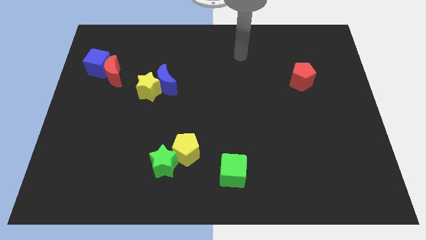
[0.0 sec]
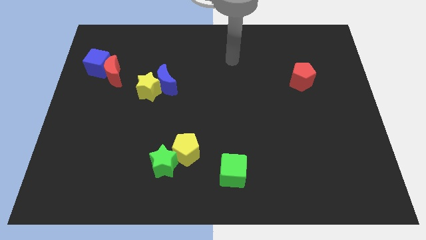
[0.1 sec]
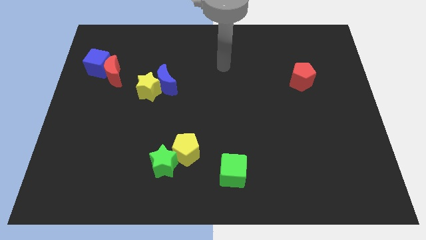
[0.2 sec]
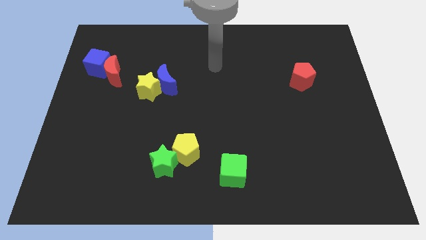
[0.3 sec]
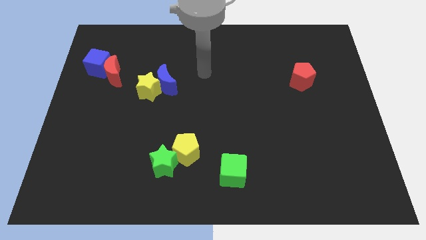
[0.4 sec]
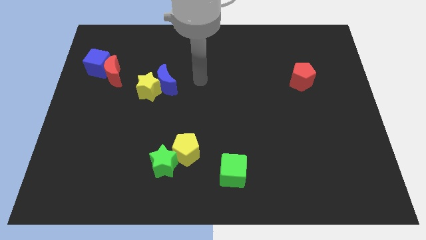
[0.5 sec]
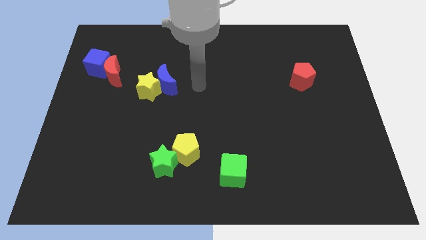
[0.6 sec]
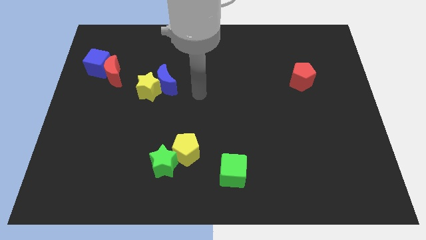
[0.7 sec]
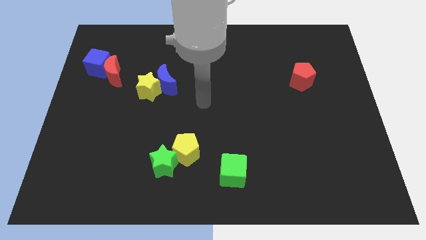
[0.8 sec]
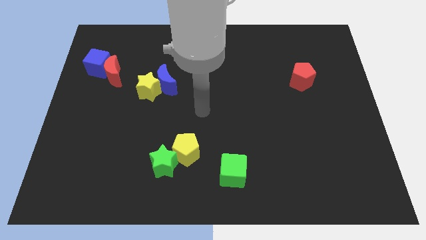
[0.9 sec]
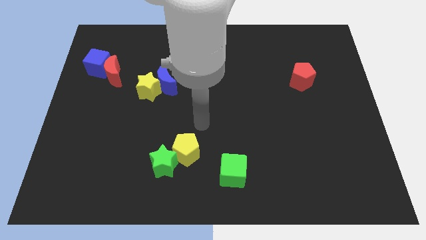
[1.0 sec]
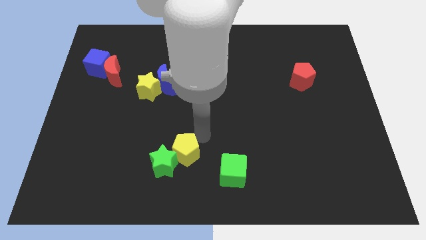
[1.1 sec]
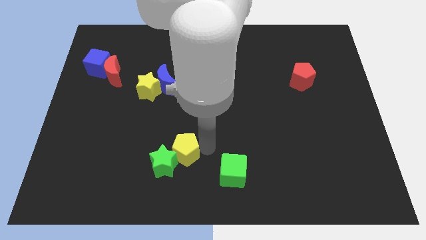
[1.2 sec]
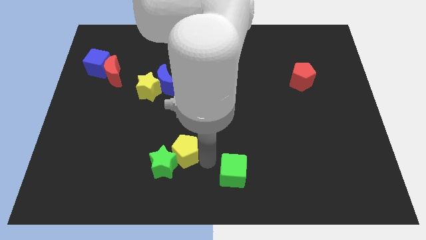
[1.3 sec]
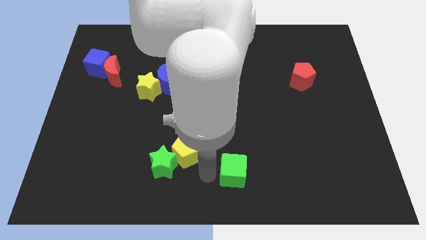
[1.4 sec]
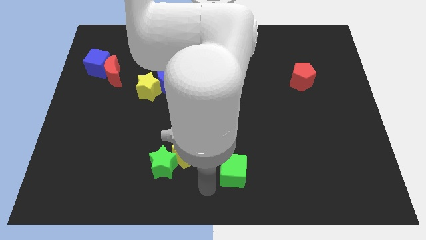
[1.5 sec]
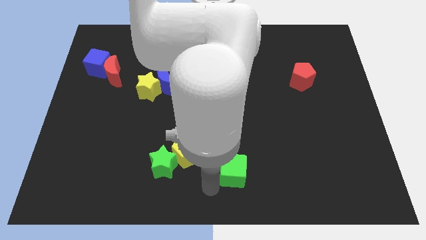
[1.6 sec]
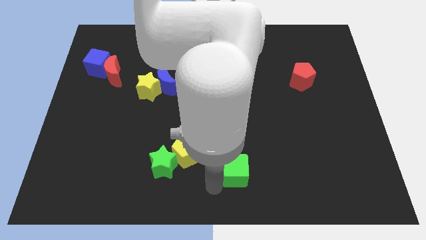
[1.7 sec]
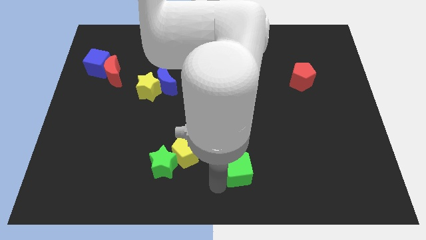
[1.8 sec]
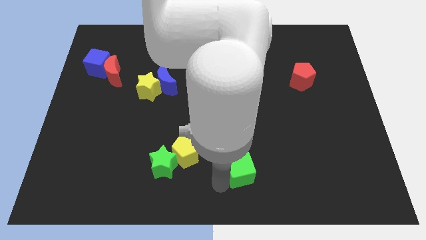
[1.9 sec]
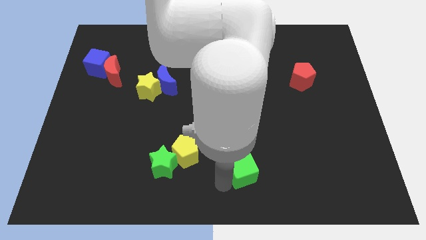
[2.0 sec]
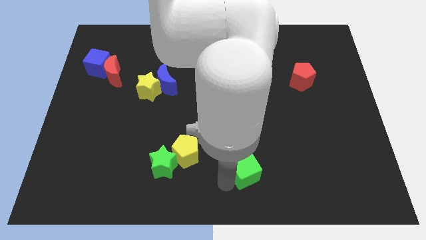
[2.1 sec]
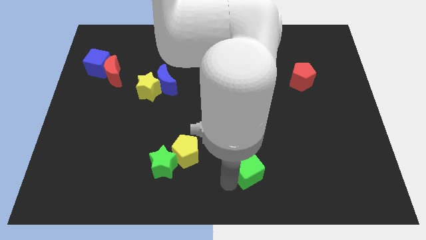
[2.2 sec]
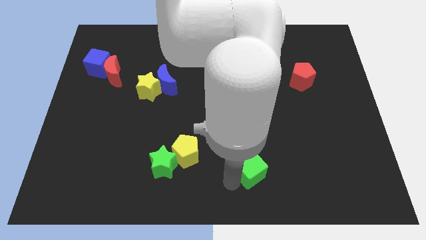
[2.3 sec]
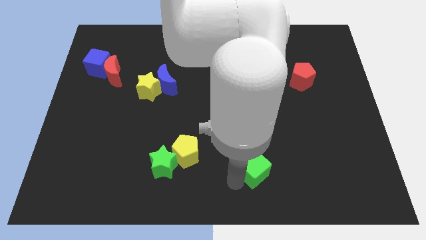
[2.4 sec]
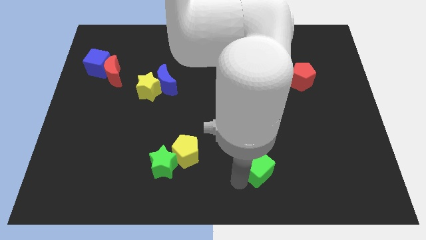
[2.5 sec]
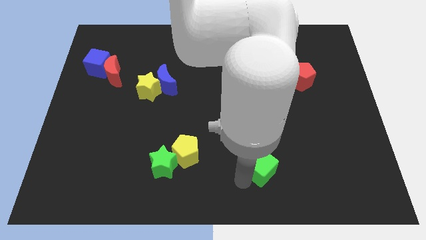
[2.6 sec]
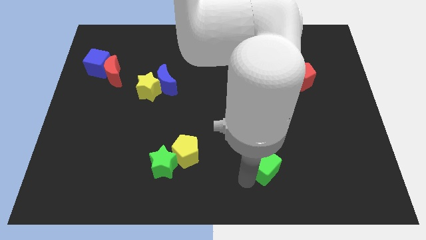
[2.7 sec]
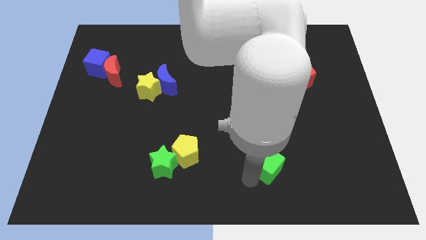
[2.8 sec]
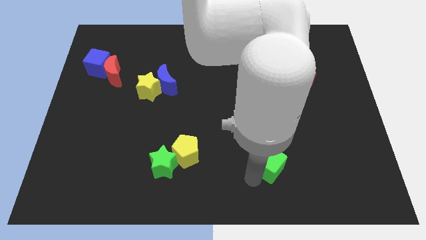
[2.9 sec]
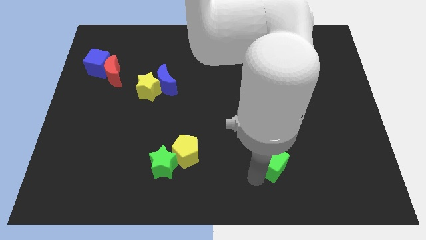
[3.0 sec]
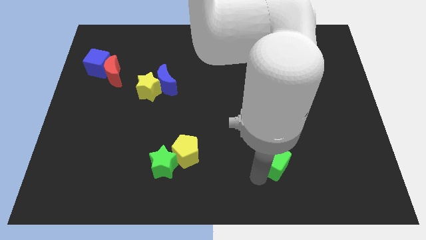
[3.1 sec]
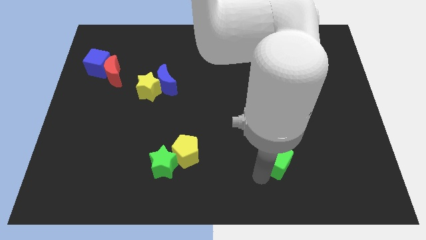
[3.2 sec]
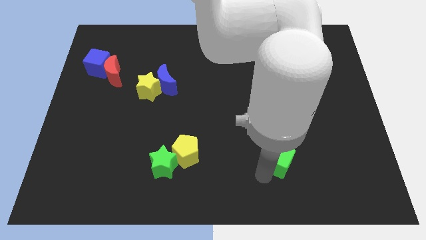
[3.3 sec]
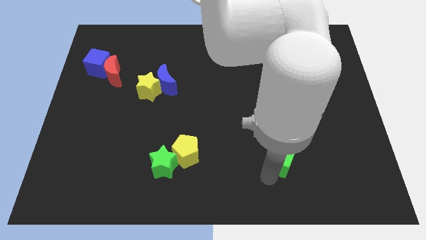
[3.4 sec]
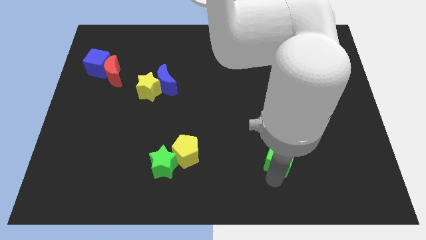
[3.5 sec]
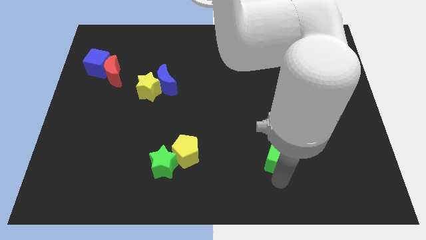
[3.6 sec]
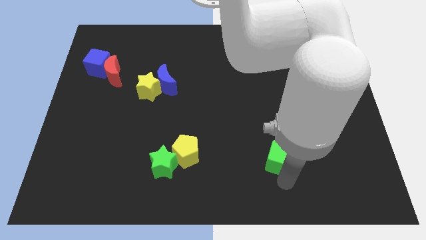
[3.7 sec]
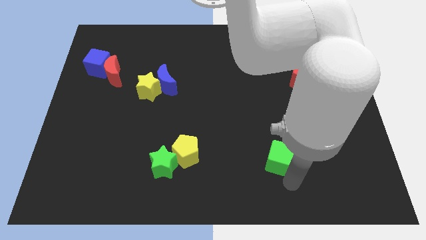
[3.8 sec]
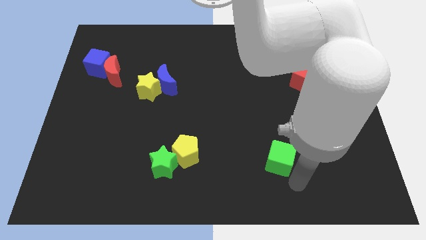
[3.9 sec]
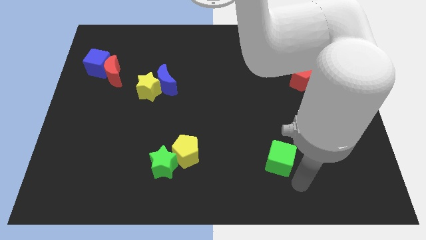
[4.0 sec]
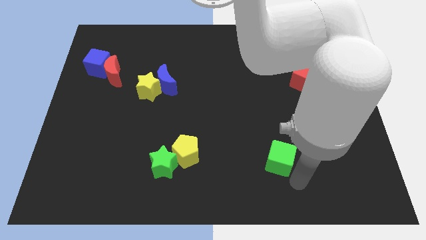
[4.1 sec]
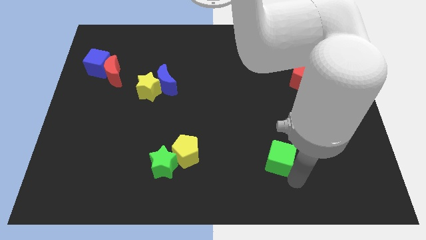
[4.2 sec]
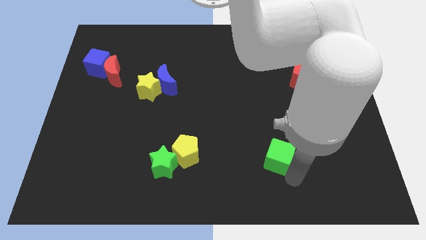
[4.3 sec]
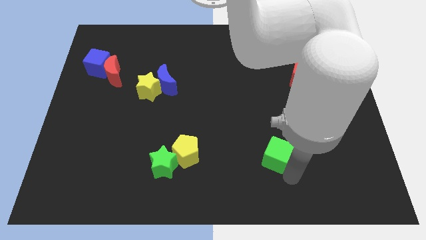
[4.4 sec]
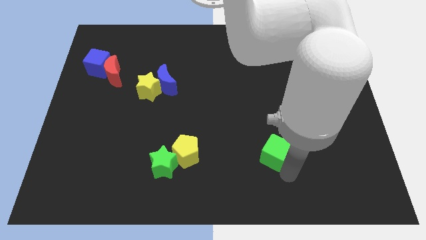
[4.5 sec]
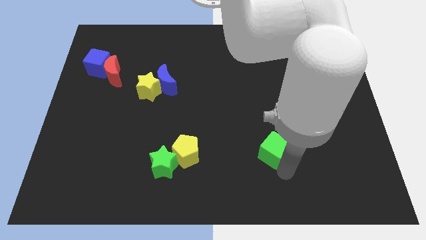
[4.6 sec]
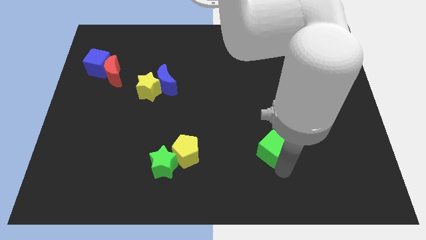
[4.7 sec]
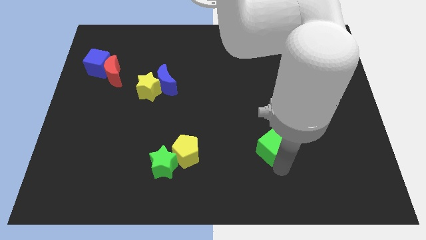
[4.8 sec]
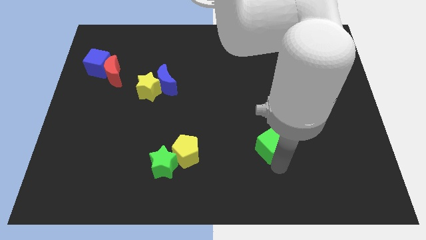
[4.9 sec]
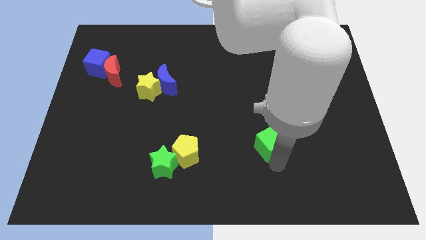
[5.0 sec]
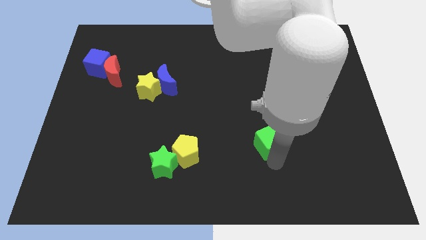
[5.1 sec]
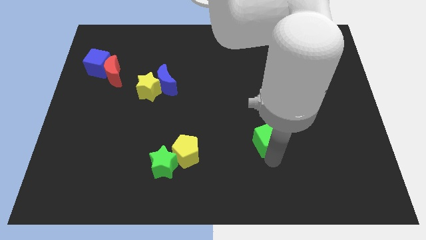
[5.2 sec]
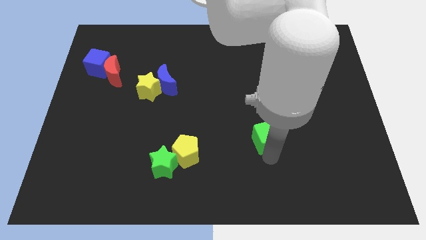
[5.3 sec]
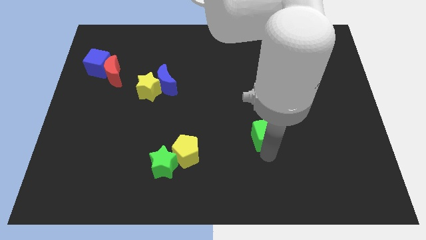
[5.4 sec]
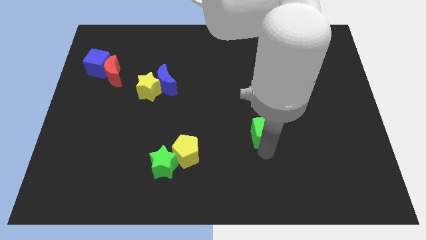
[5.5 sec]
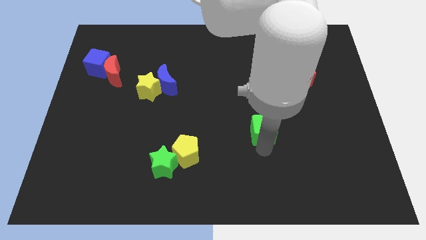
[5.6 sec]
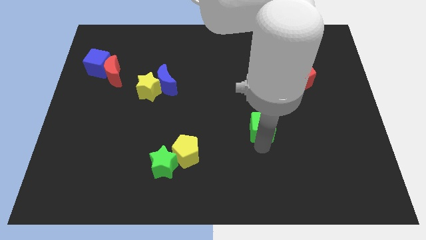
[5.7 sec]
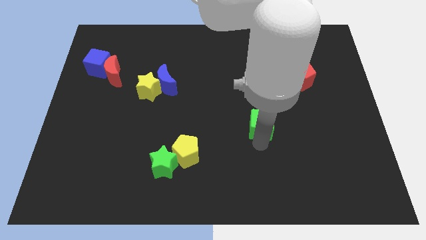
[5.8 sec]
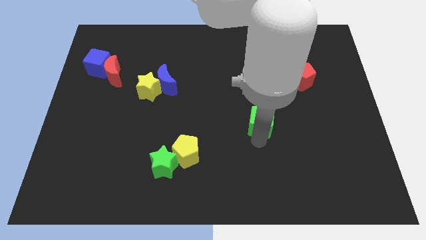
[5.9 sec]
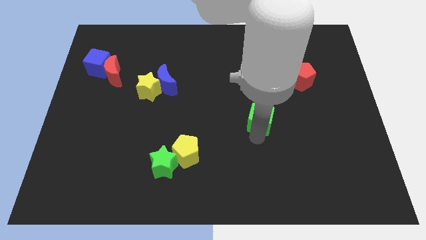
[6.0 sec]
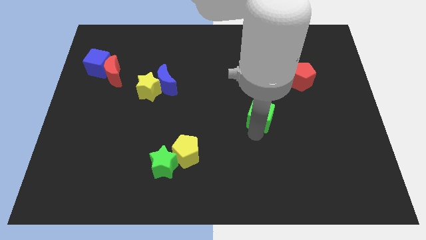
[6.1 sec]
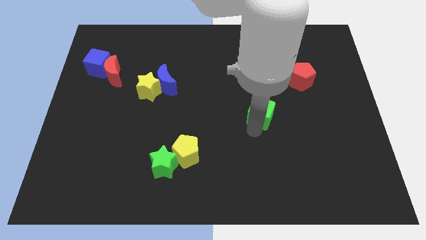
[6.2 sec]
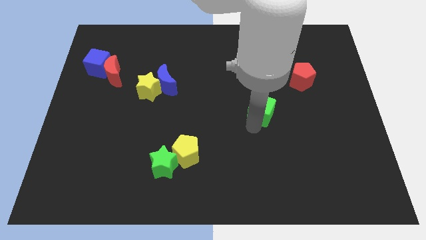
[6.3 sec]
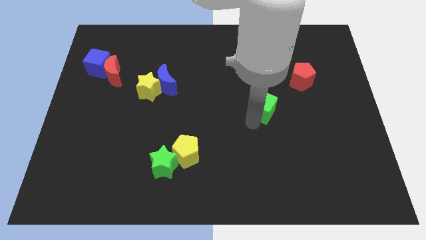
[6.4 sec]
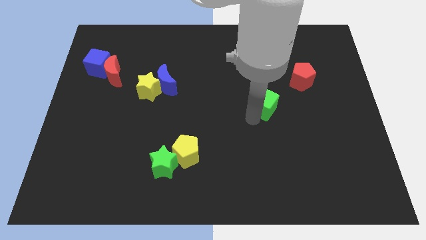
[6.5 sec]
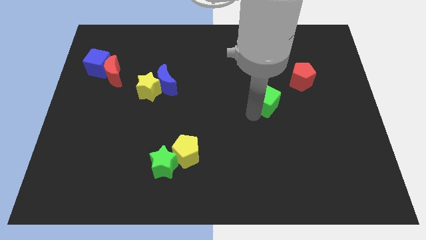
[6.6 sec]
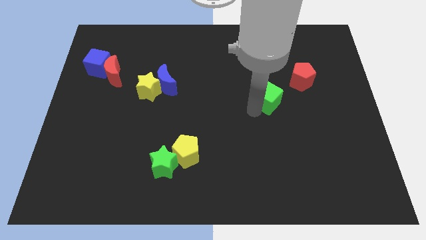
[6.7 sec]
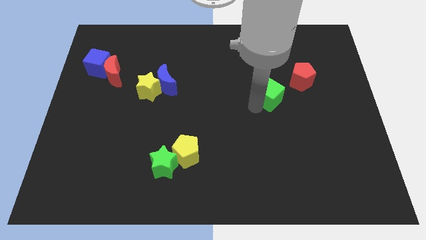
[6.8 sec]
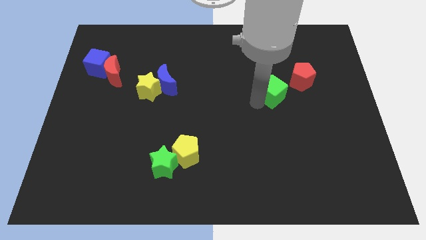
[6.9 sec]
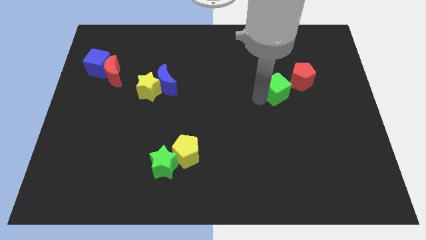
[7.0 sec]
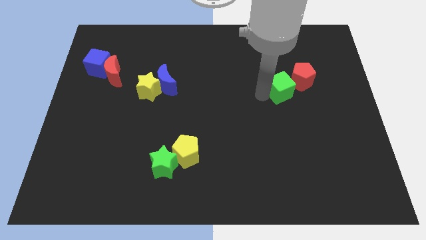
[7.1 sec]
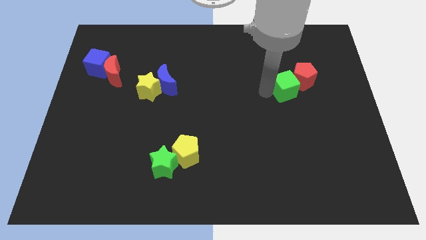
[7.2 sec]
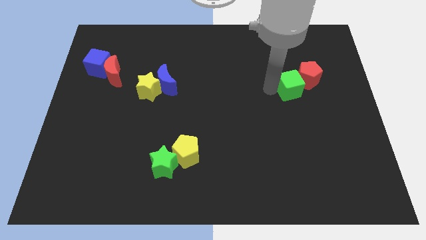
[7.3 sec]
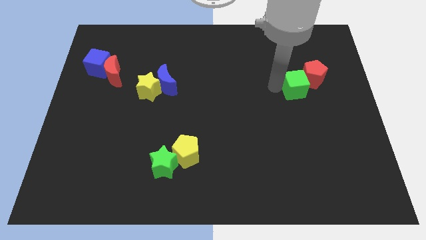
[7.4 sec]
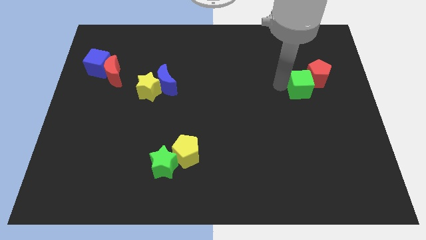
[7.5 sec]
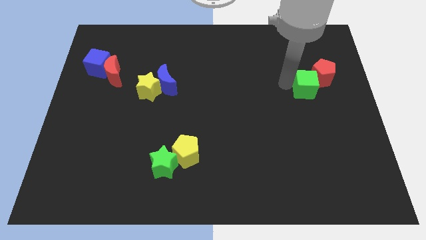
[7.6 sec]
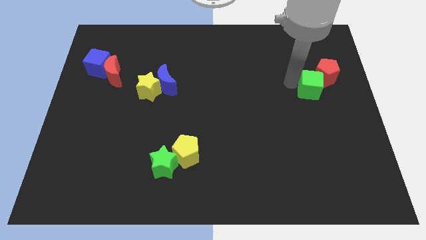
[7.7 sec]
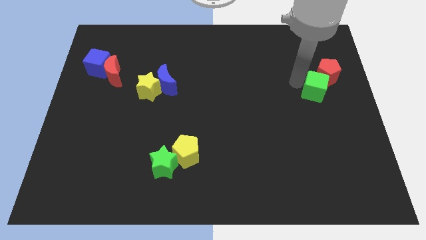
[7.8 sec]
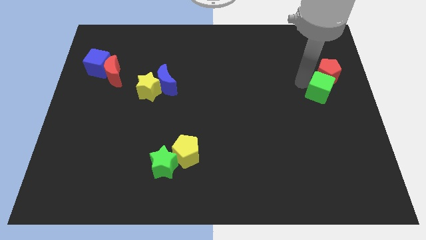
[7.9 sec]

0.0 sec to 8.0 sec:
push the green cube to the right side
